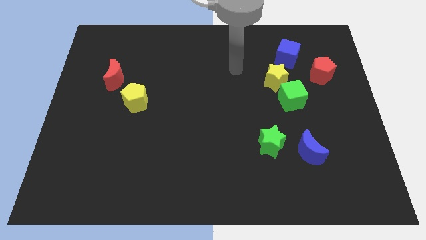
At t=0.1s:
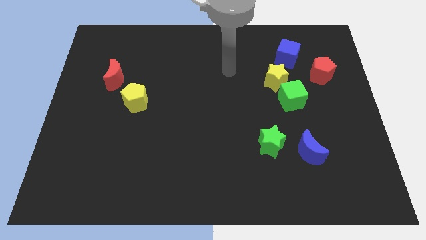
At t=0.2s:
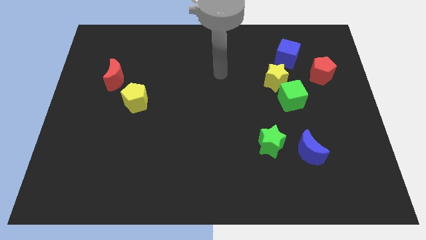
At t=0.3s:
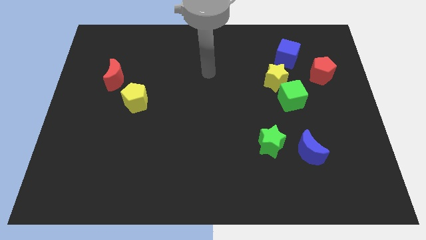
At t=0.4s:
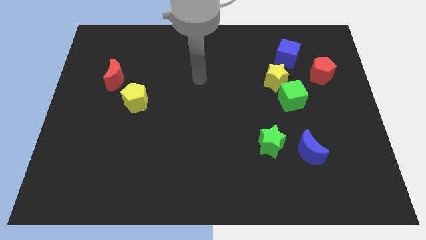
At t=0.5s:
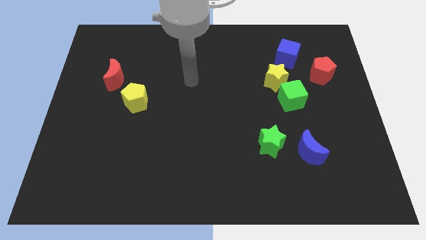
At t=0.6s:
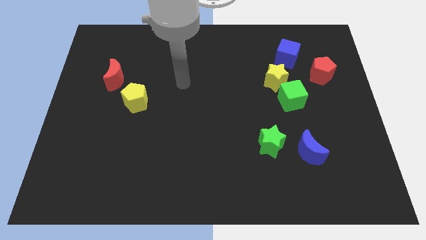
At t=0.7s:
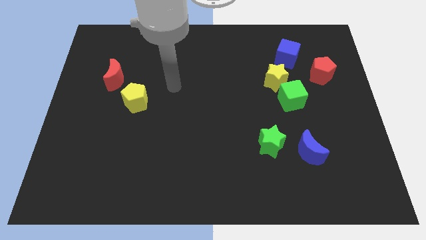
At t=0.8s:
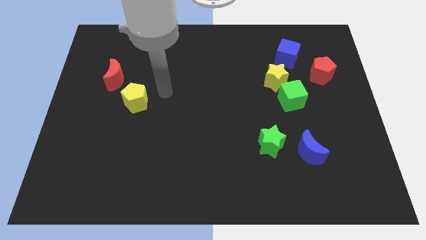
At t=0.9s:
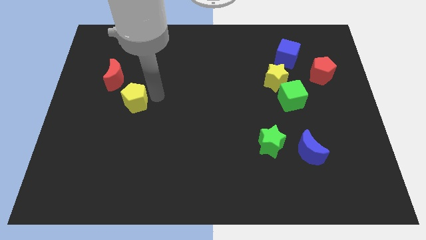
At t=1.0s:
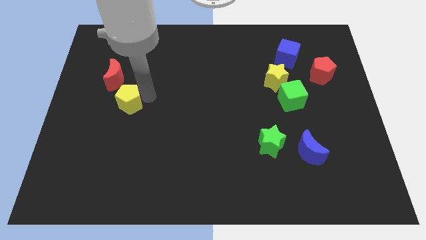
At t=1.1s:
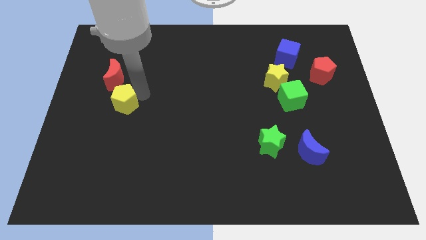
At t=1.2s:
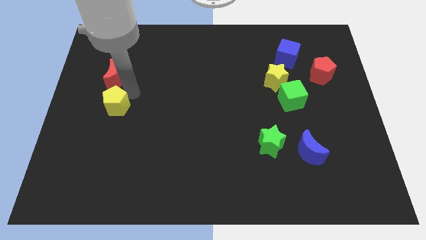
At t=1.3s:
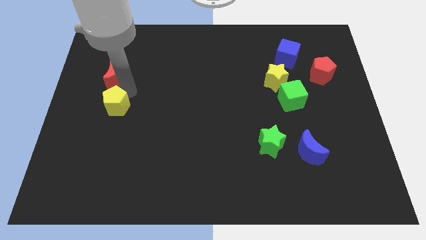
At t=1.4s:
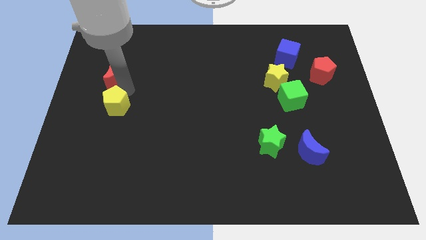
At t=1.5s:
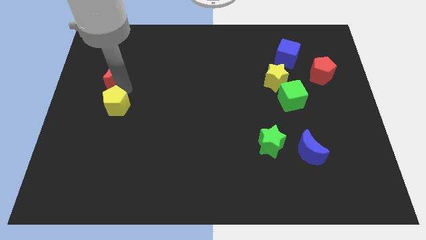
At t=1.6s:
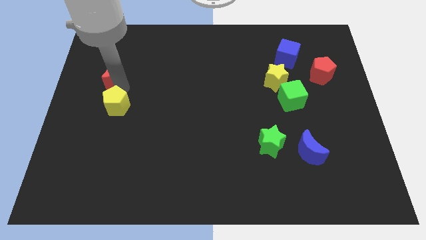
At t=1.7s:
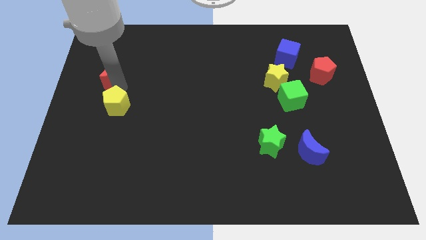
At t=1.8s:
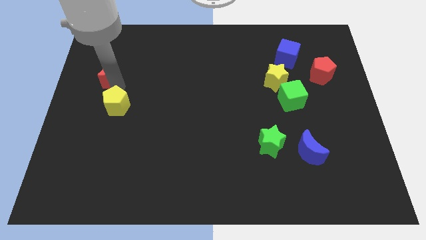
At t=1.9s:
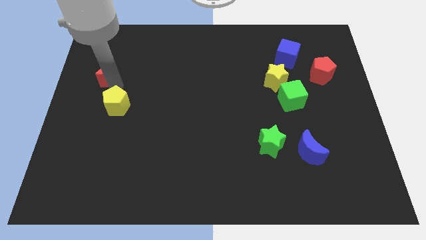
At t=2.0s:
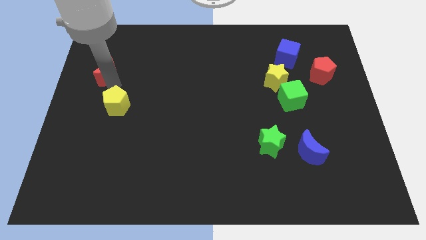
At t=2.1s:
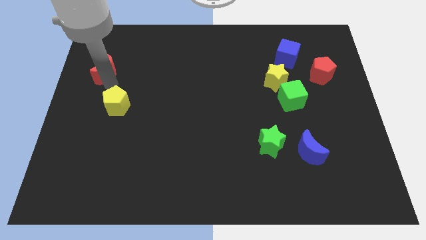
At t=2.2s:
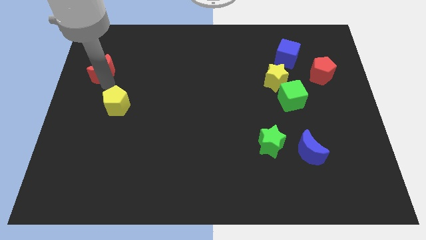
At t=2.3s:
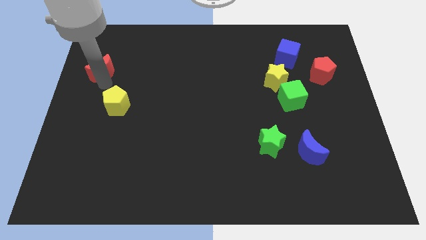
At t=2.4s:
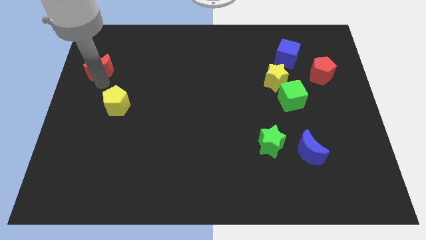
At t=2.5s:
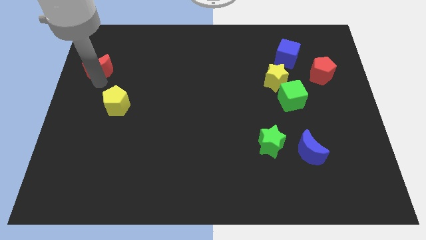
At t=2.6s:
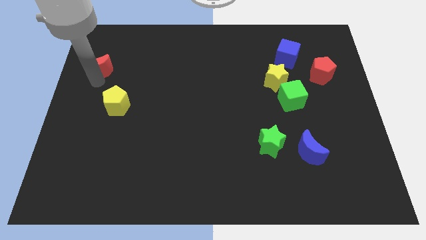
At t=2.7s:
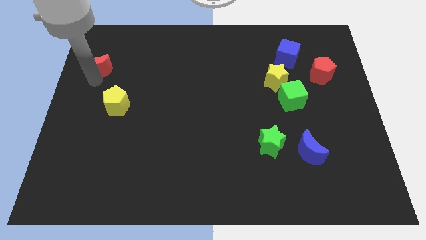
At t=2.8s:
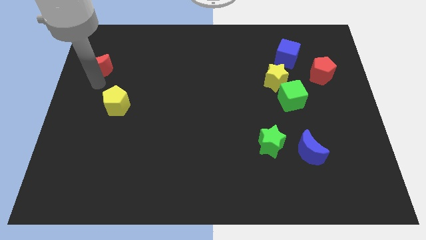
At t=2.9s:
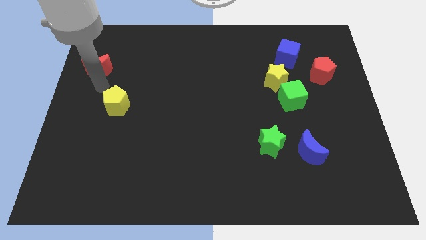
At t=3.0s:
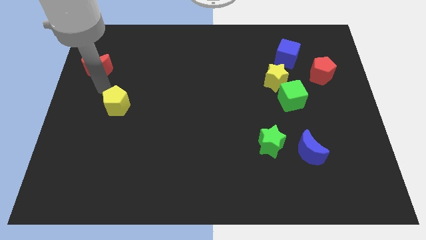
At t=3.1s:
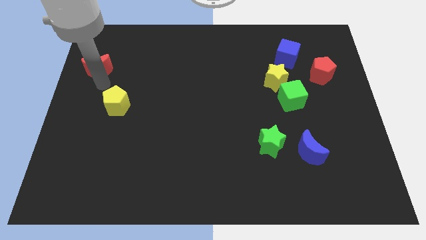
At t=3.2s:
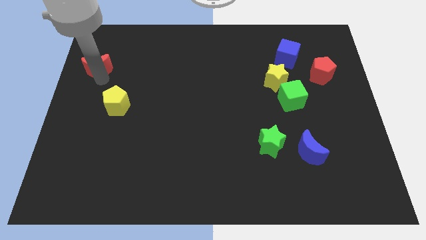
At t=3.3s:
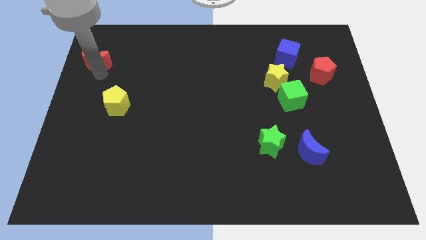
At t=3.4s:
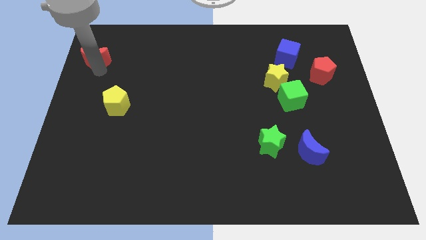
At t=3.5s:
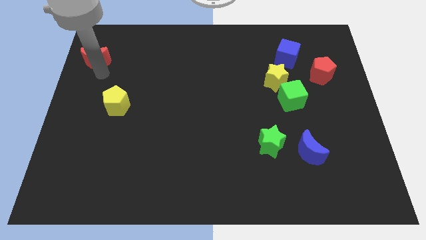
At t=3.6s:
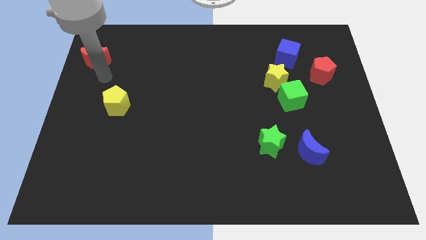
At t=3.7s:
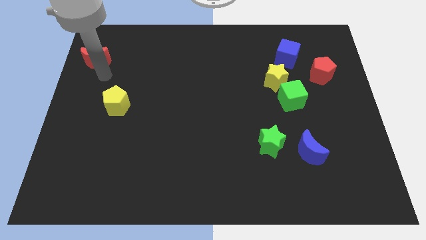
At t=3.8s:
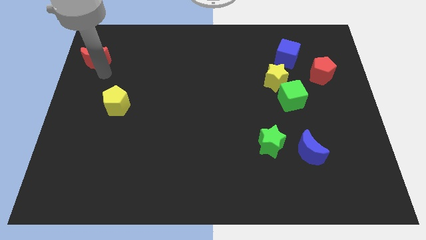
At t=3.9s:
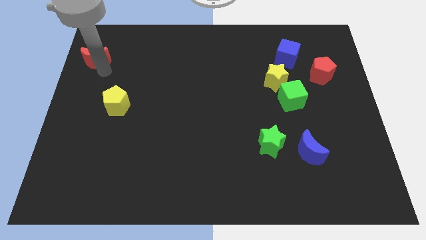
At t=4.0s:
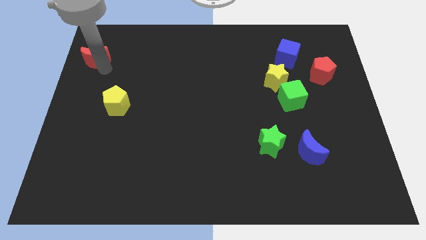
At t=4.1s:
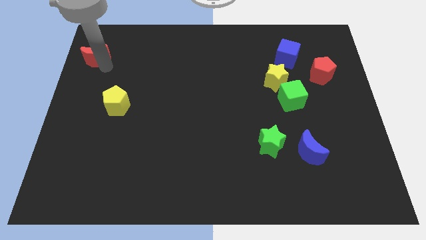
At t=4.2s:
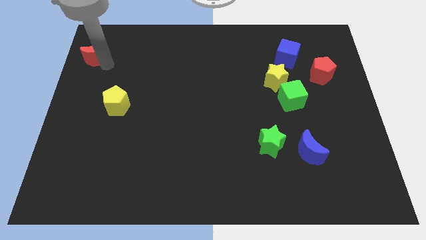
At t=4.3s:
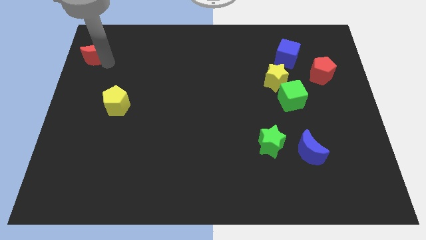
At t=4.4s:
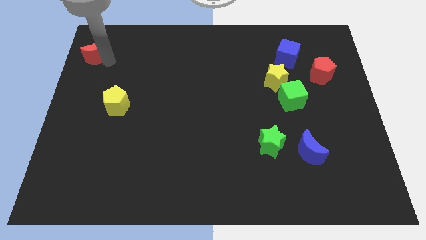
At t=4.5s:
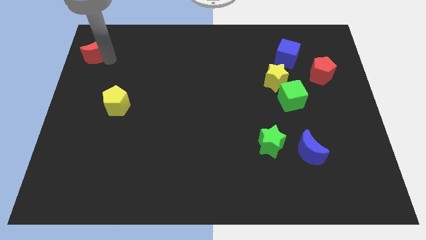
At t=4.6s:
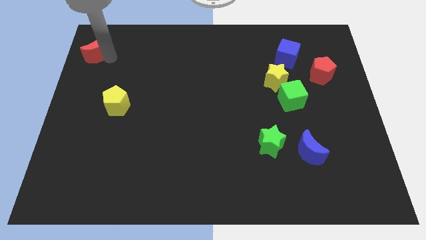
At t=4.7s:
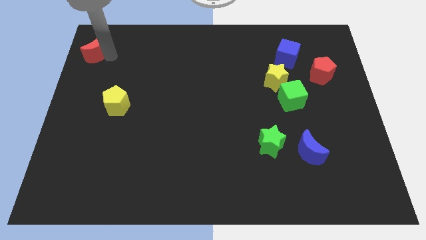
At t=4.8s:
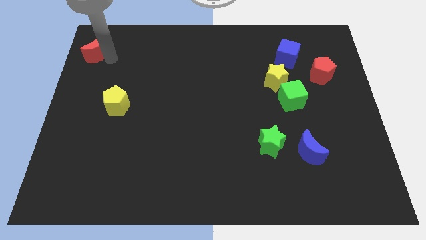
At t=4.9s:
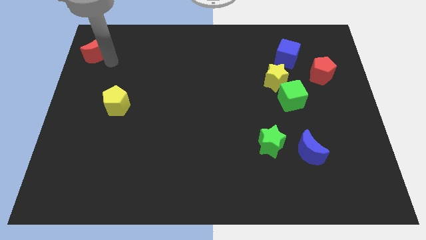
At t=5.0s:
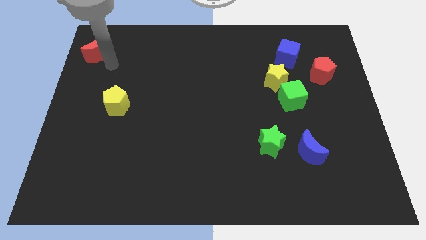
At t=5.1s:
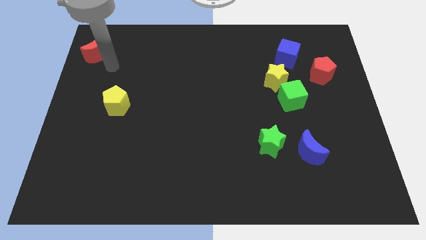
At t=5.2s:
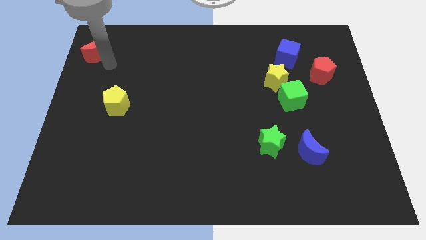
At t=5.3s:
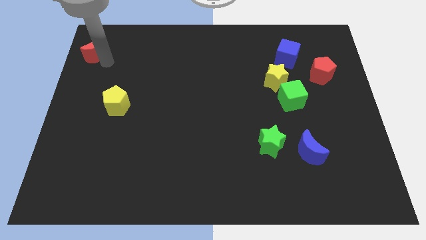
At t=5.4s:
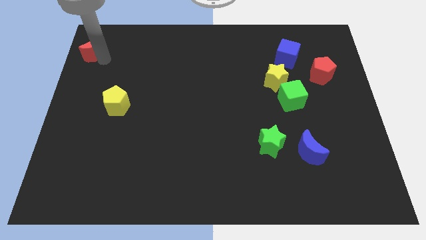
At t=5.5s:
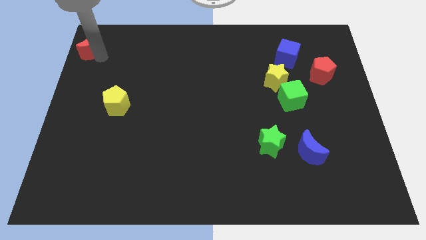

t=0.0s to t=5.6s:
put the red moon to the top left corner

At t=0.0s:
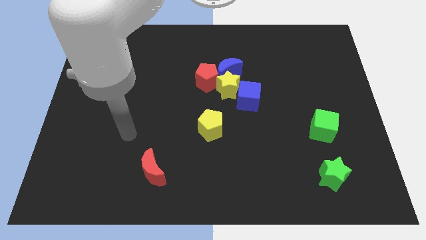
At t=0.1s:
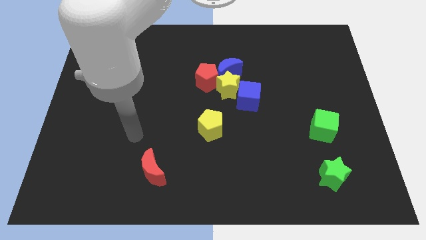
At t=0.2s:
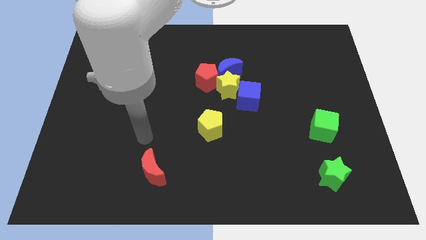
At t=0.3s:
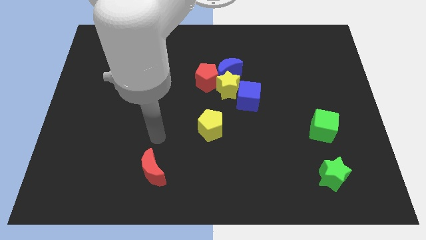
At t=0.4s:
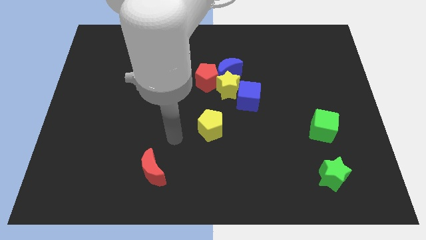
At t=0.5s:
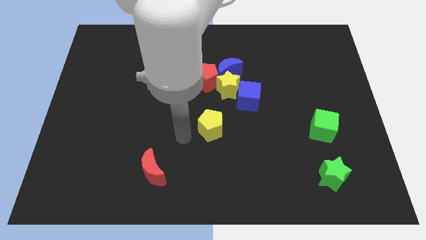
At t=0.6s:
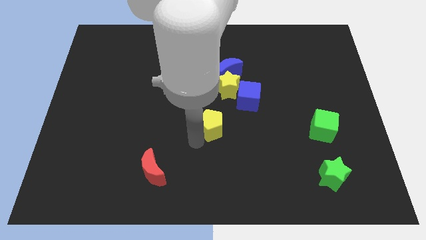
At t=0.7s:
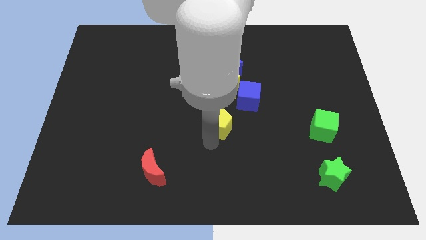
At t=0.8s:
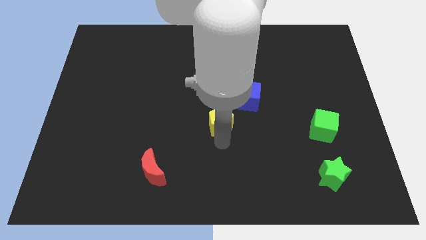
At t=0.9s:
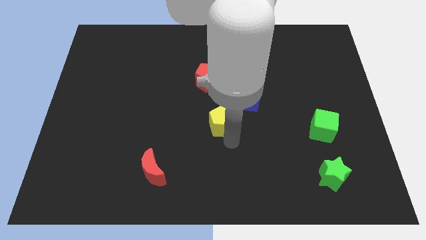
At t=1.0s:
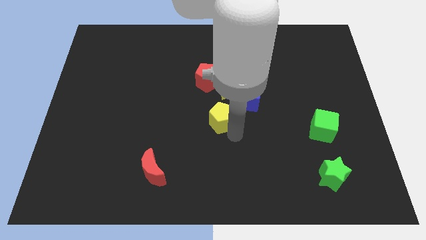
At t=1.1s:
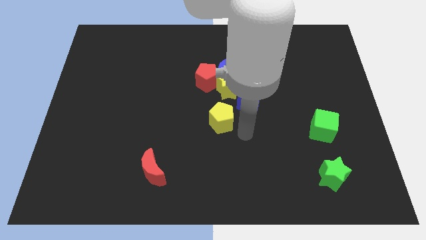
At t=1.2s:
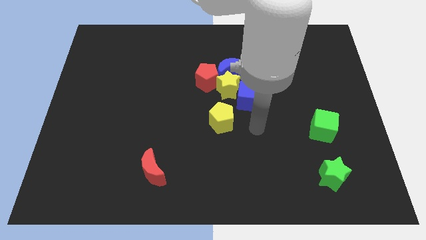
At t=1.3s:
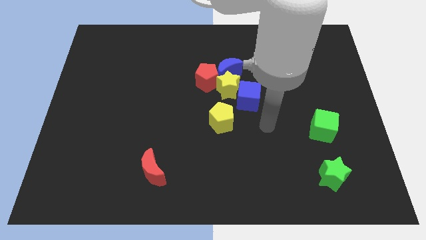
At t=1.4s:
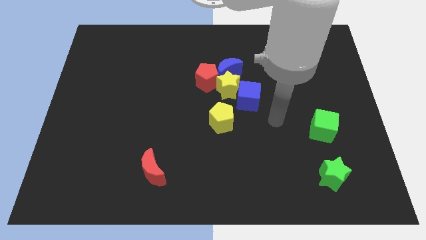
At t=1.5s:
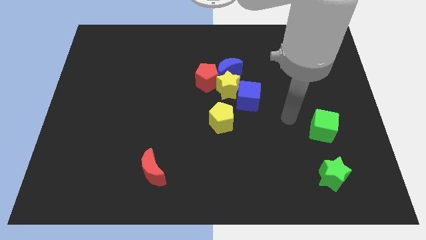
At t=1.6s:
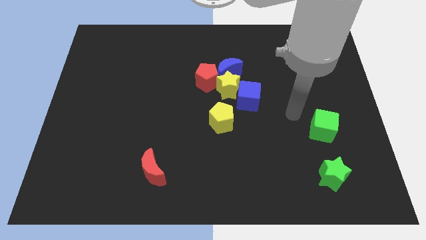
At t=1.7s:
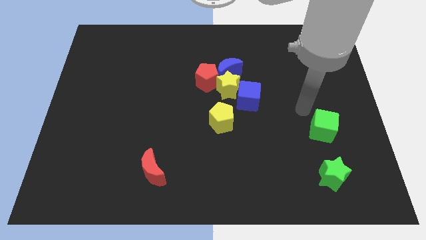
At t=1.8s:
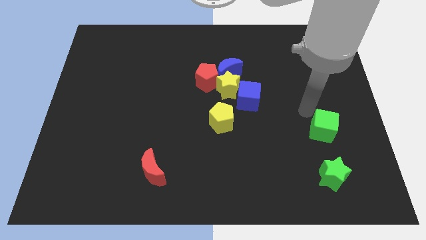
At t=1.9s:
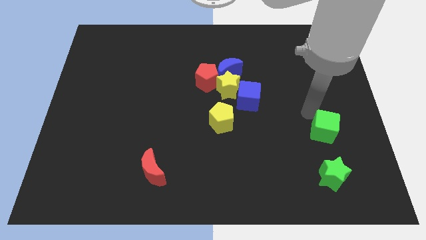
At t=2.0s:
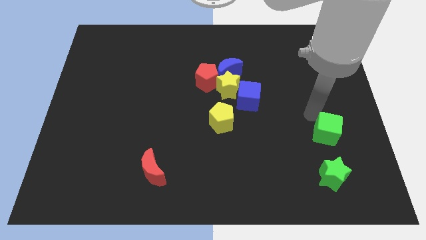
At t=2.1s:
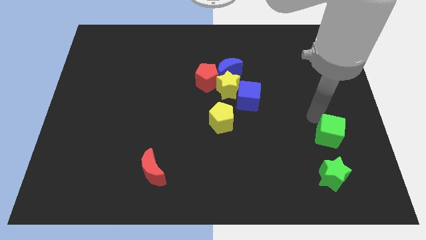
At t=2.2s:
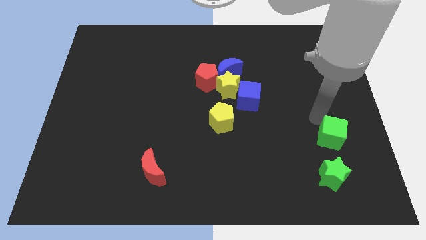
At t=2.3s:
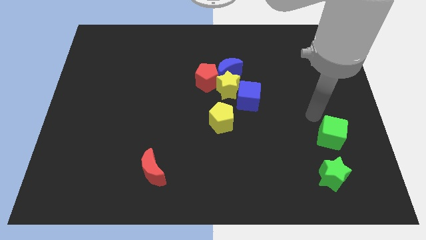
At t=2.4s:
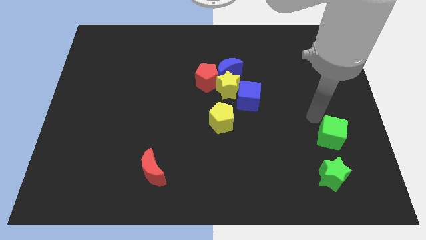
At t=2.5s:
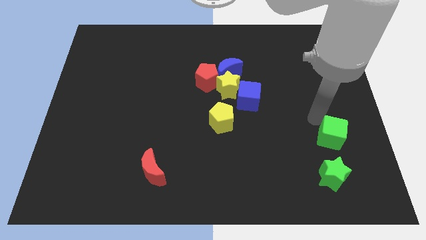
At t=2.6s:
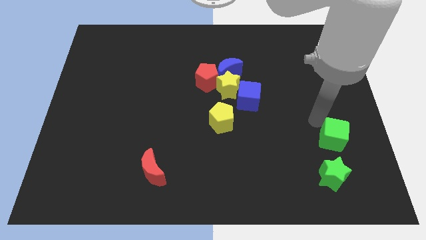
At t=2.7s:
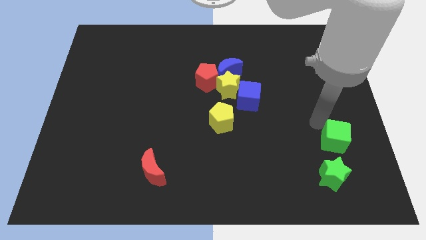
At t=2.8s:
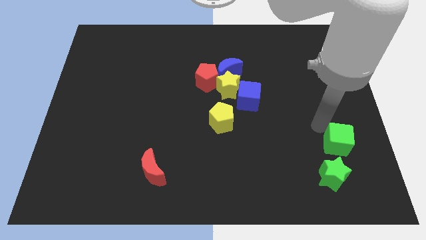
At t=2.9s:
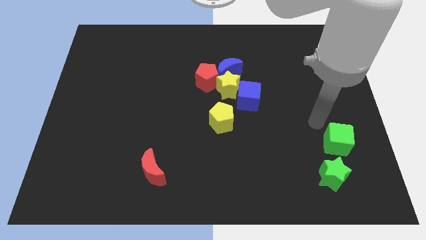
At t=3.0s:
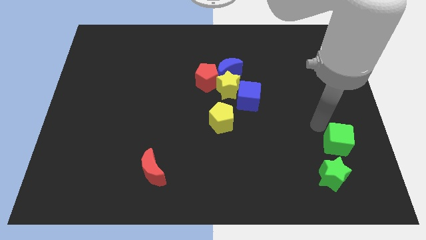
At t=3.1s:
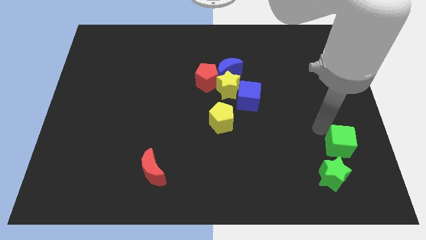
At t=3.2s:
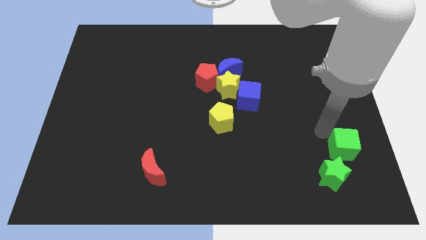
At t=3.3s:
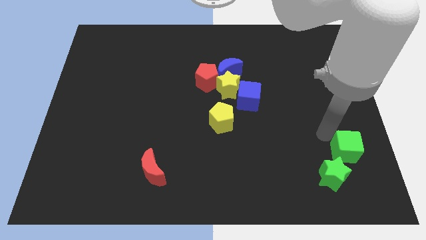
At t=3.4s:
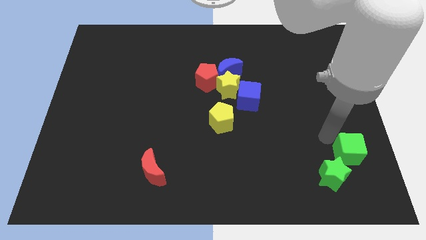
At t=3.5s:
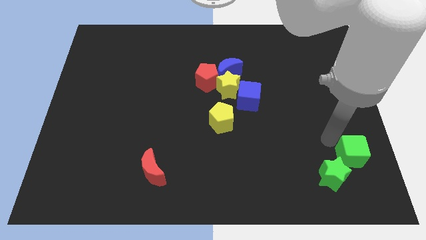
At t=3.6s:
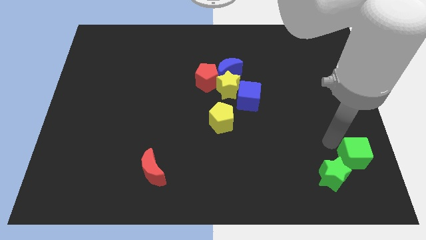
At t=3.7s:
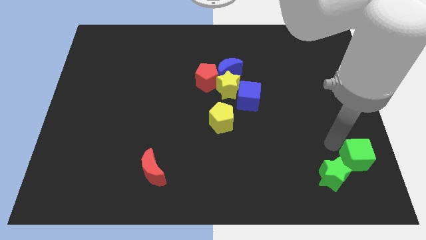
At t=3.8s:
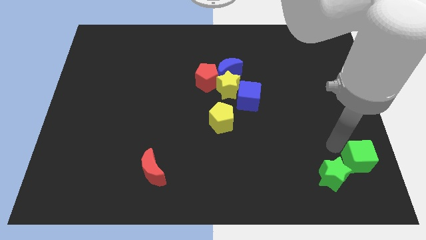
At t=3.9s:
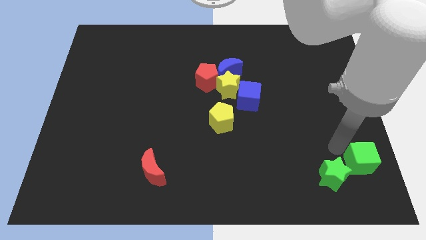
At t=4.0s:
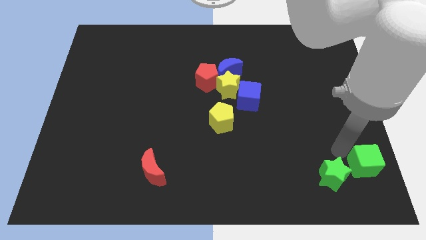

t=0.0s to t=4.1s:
put the green cube to the bottom right
